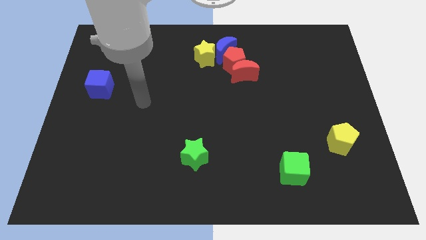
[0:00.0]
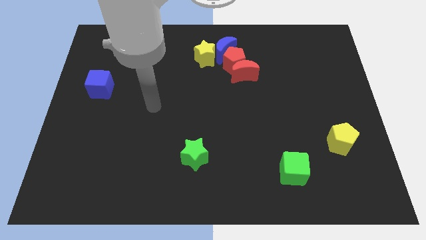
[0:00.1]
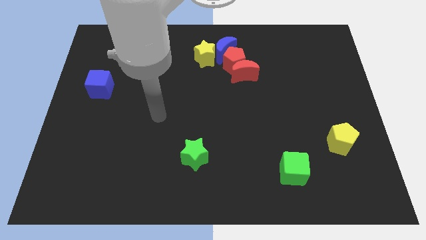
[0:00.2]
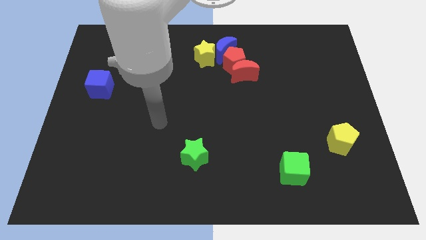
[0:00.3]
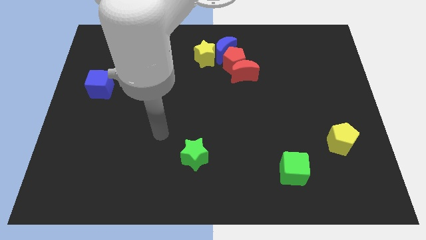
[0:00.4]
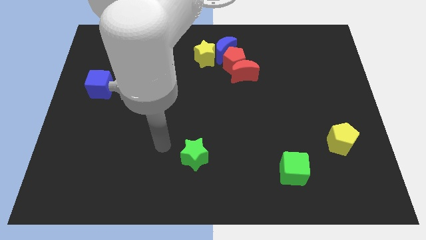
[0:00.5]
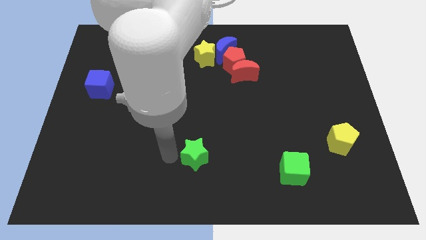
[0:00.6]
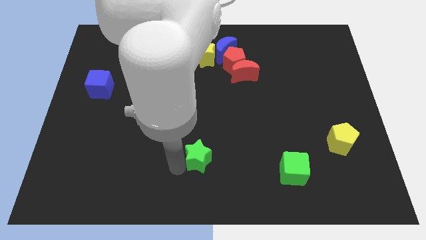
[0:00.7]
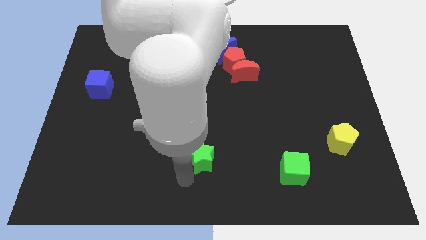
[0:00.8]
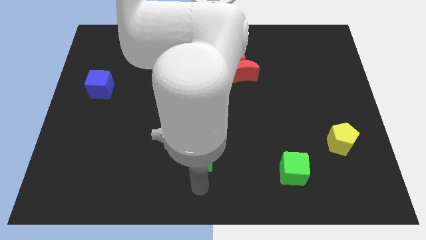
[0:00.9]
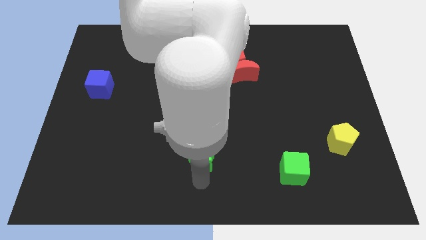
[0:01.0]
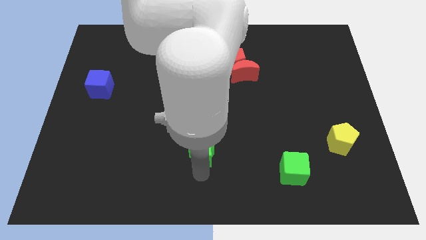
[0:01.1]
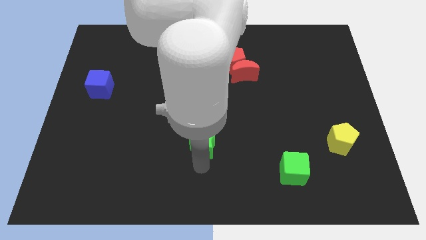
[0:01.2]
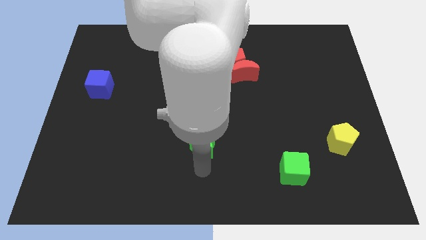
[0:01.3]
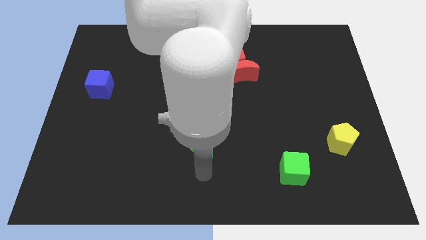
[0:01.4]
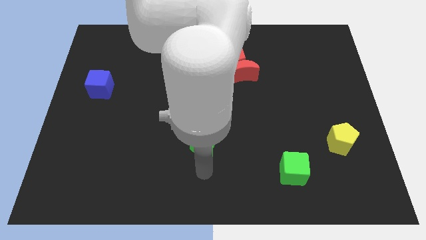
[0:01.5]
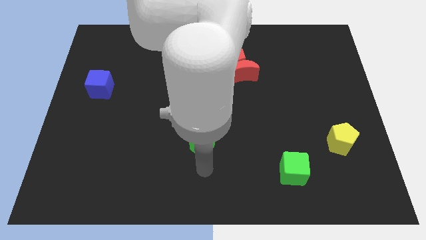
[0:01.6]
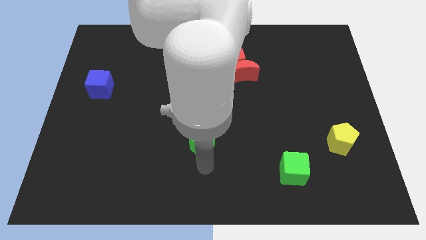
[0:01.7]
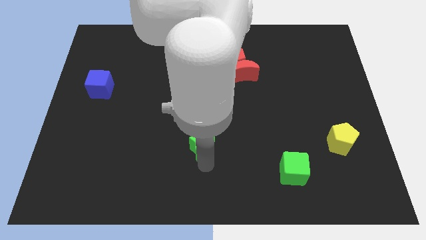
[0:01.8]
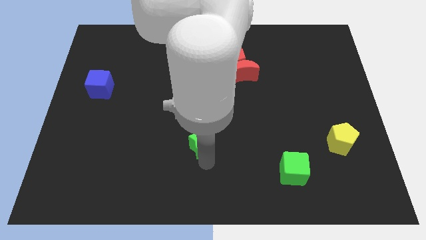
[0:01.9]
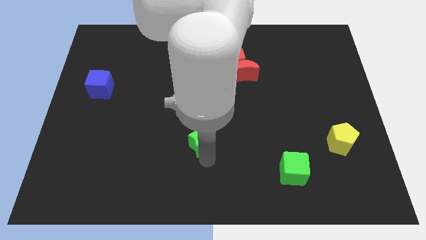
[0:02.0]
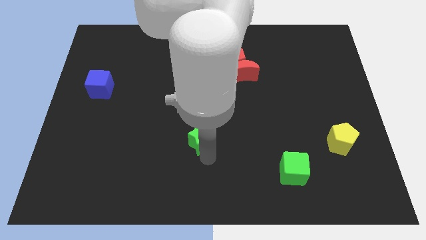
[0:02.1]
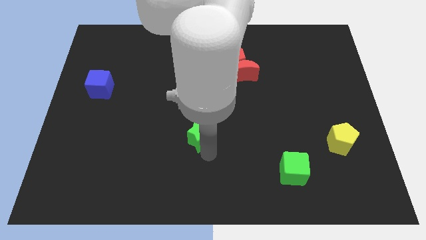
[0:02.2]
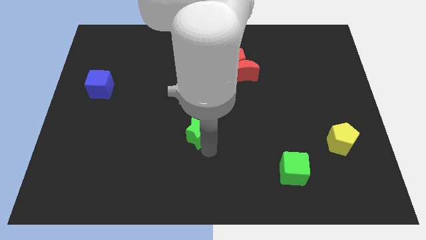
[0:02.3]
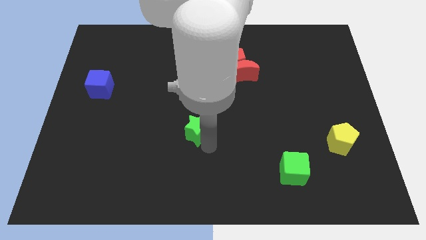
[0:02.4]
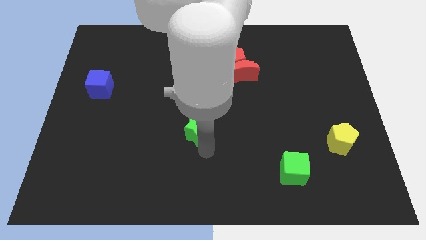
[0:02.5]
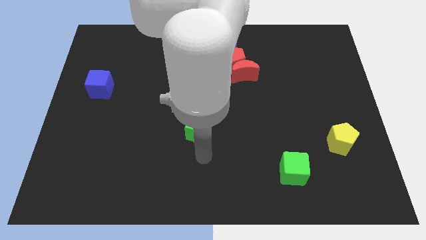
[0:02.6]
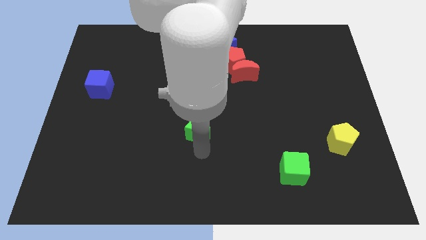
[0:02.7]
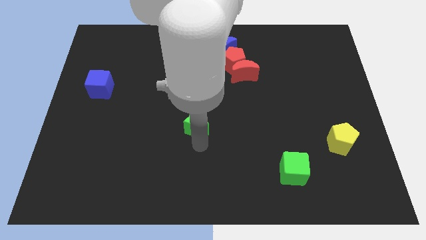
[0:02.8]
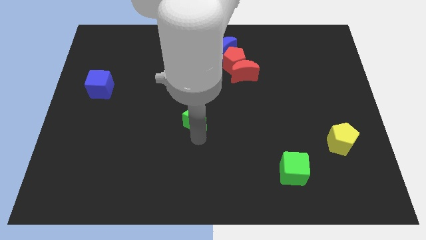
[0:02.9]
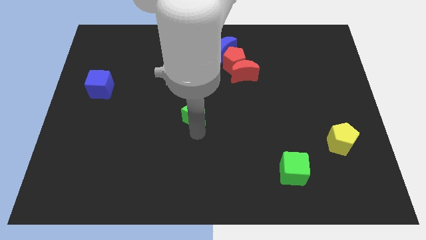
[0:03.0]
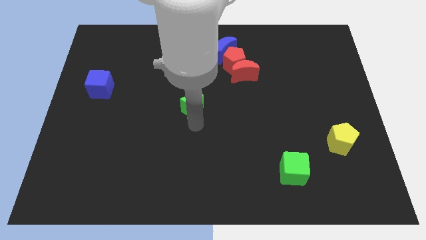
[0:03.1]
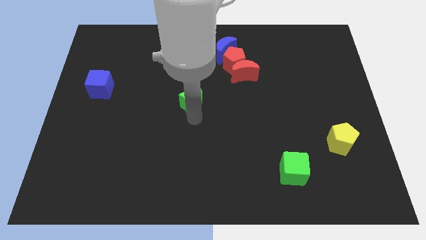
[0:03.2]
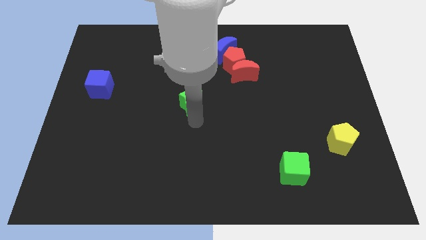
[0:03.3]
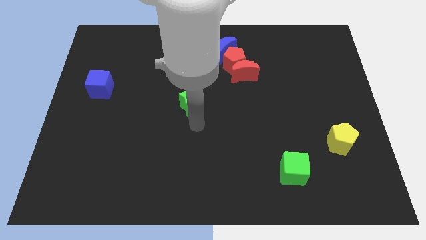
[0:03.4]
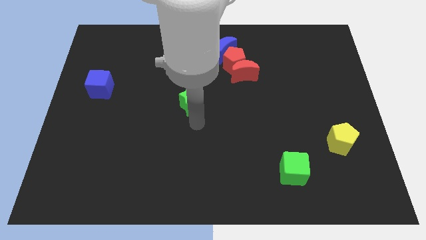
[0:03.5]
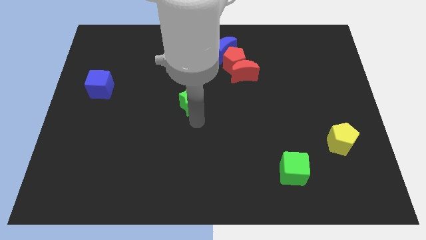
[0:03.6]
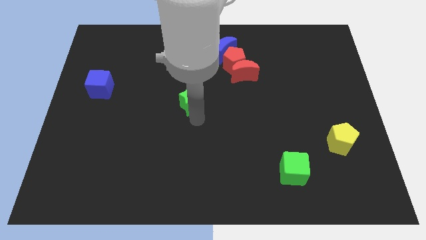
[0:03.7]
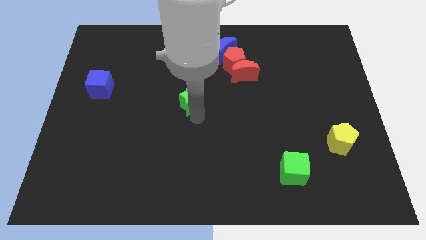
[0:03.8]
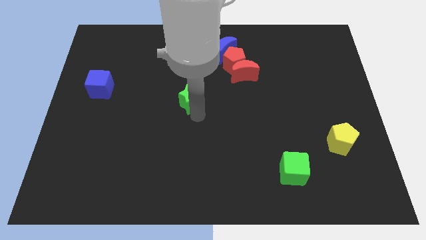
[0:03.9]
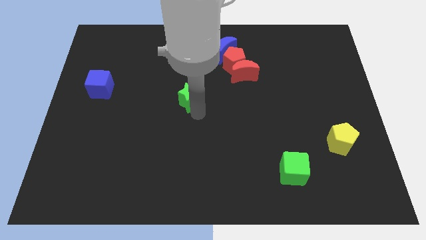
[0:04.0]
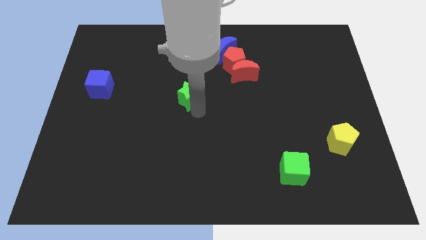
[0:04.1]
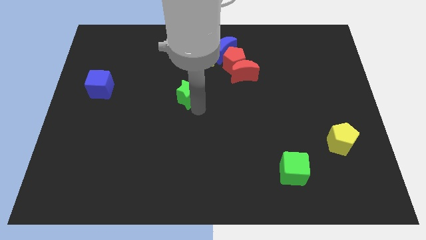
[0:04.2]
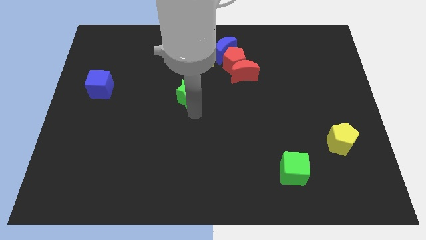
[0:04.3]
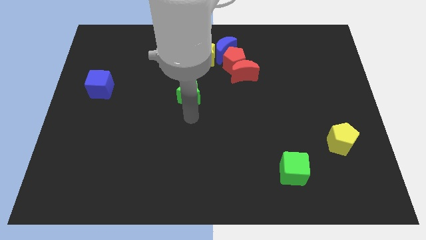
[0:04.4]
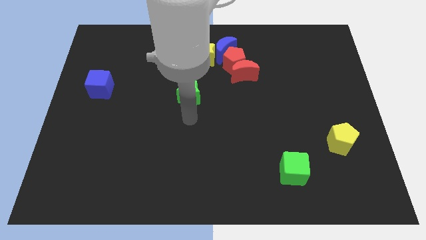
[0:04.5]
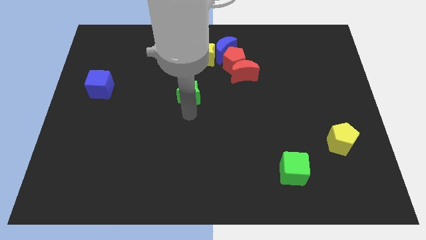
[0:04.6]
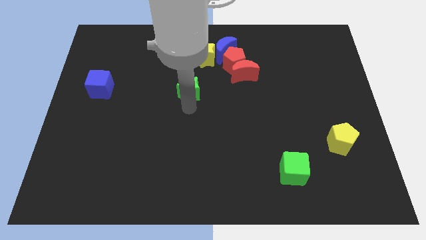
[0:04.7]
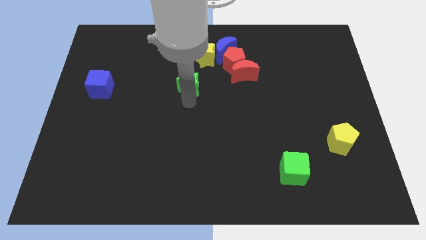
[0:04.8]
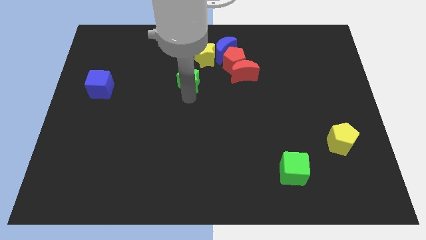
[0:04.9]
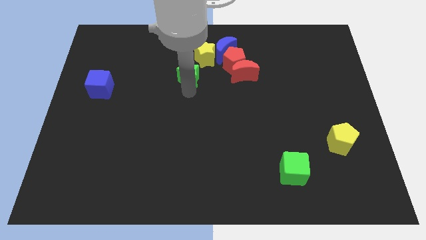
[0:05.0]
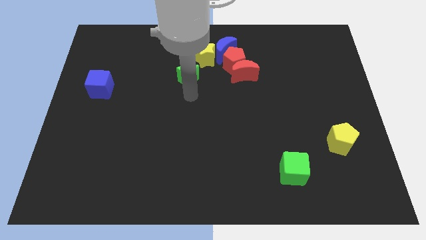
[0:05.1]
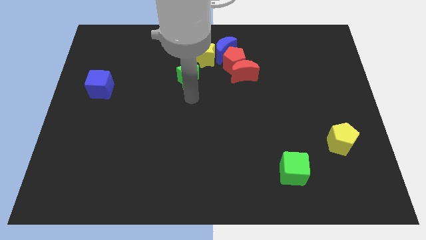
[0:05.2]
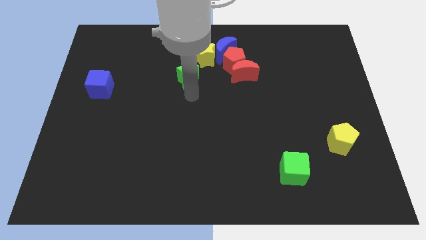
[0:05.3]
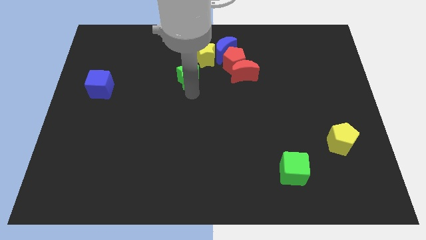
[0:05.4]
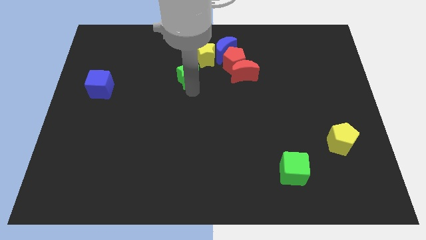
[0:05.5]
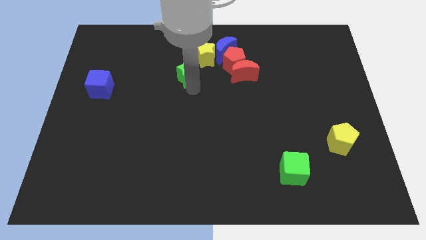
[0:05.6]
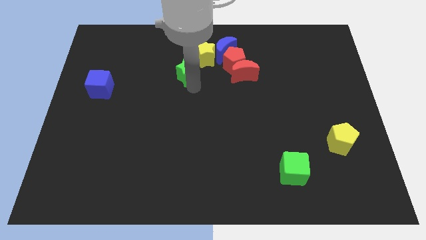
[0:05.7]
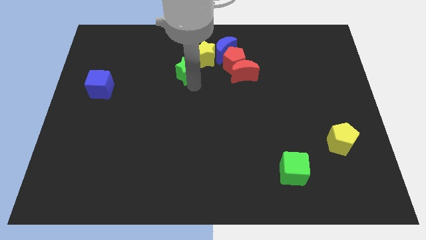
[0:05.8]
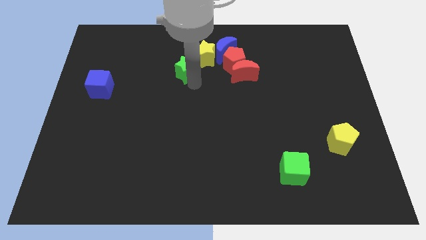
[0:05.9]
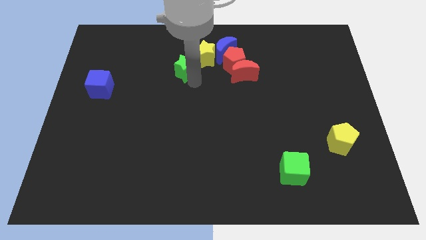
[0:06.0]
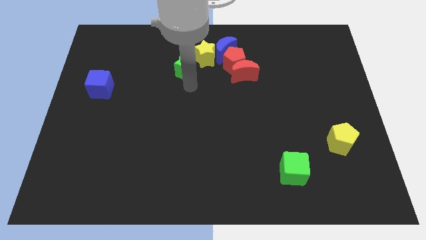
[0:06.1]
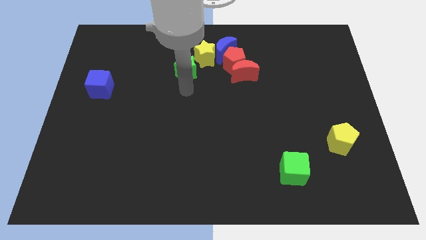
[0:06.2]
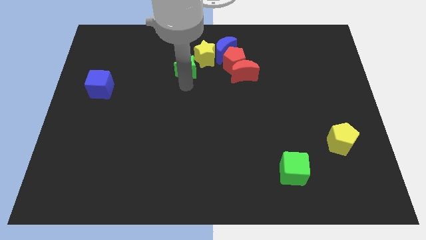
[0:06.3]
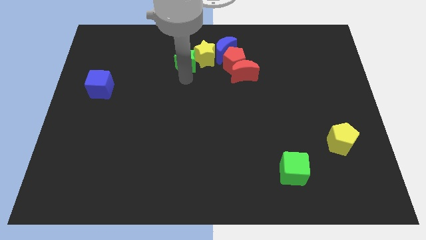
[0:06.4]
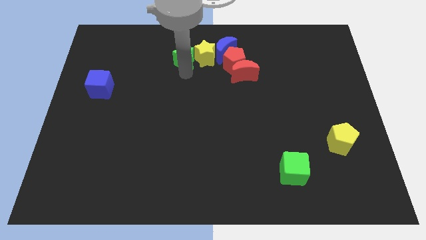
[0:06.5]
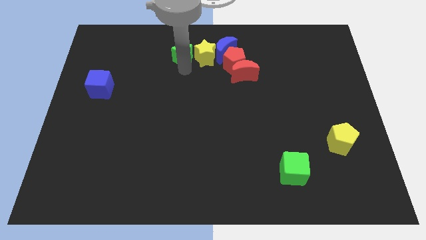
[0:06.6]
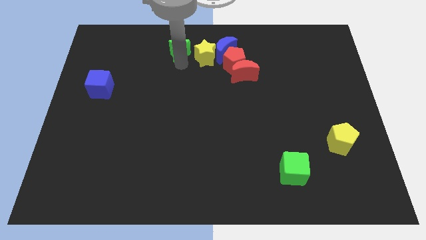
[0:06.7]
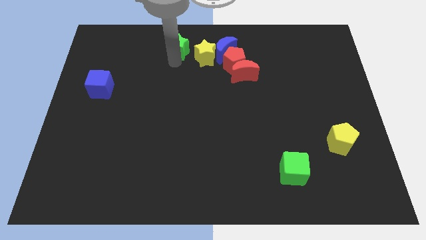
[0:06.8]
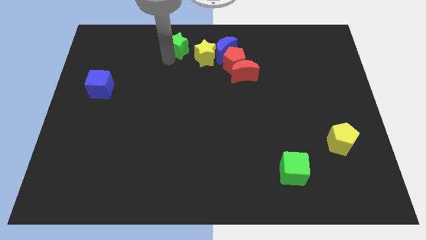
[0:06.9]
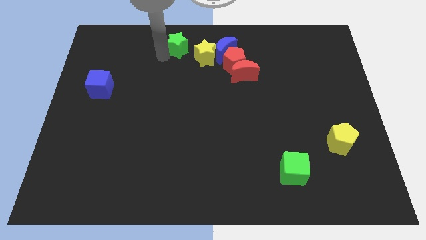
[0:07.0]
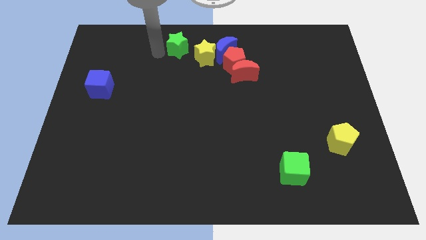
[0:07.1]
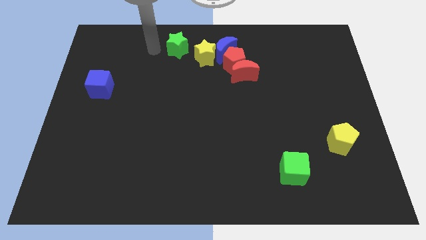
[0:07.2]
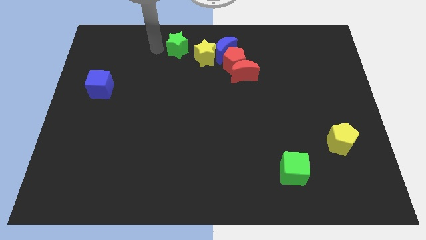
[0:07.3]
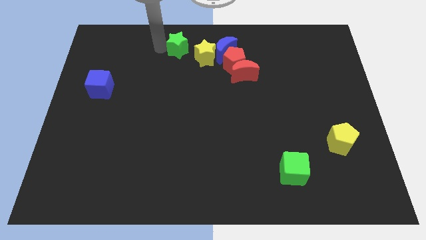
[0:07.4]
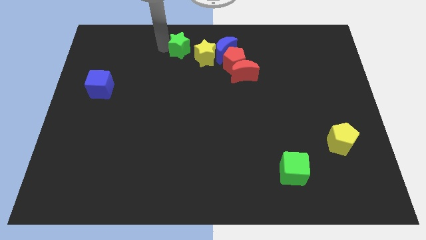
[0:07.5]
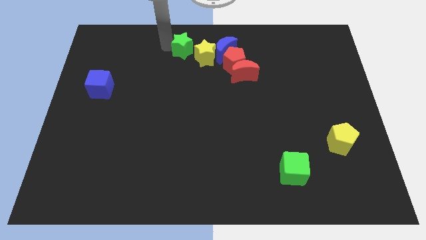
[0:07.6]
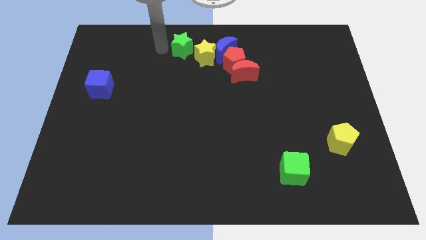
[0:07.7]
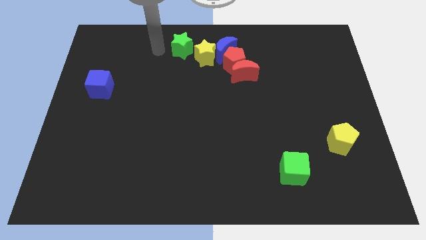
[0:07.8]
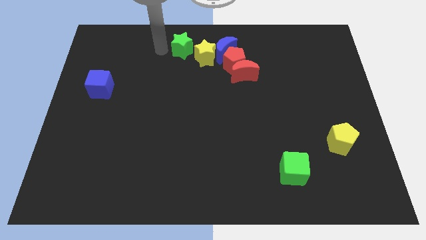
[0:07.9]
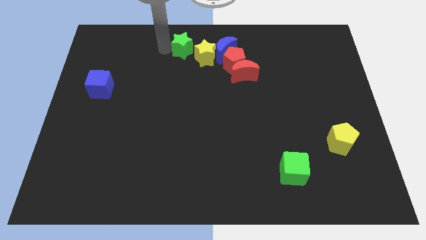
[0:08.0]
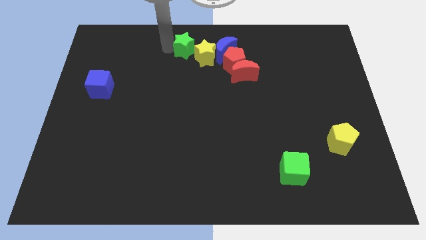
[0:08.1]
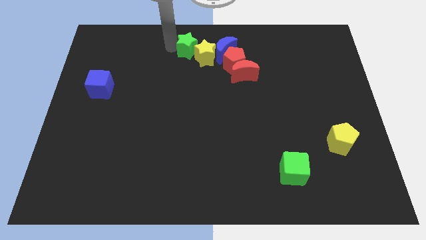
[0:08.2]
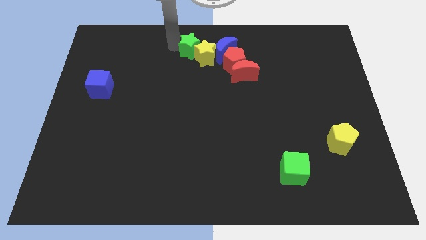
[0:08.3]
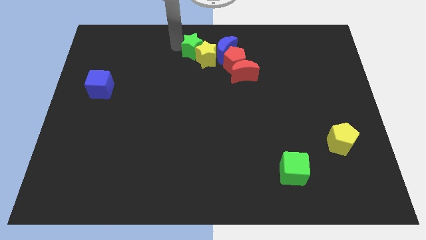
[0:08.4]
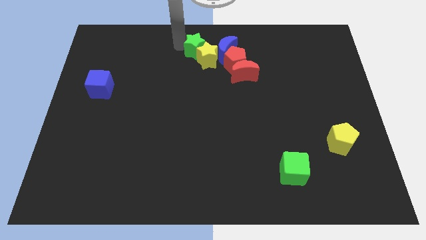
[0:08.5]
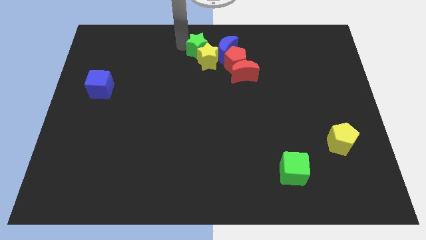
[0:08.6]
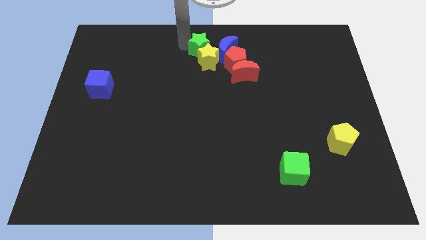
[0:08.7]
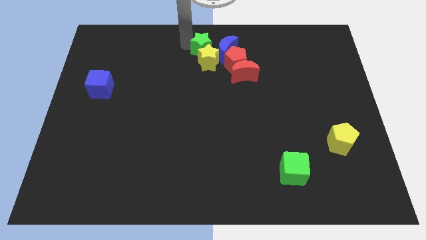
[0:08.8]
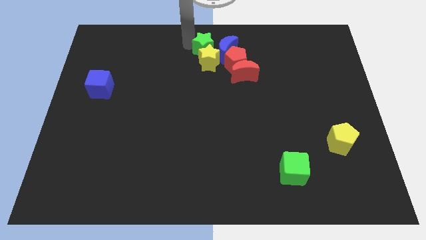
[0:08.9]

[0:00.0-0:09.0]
put the green star towards the blue moon
